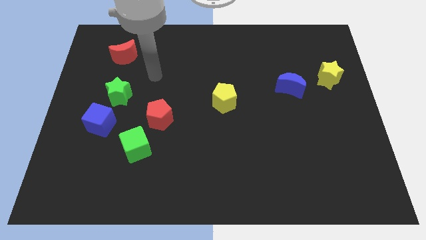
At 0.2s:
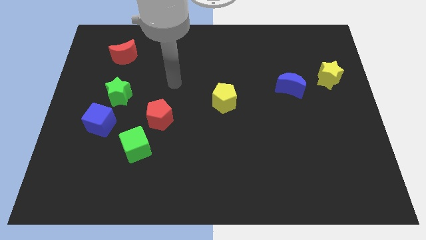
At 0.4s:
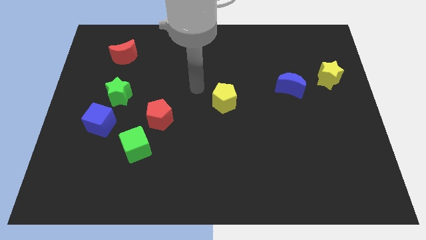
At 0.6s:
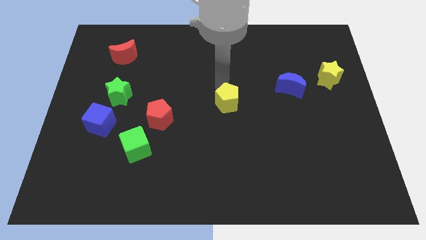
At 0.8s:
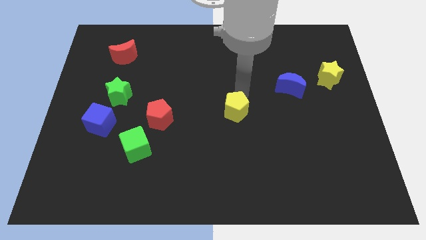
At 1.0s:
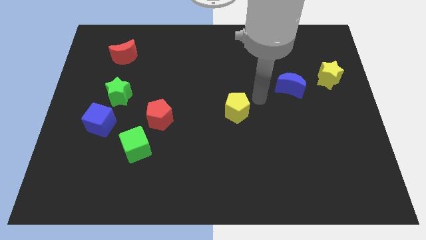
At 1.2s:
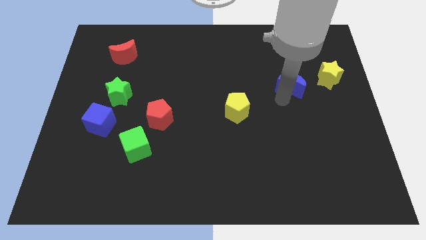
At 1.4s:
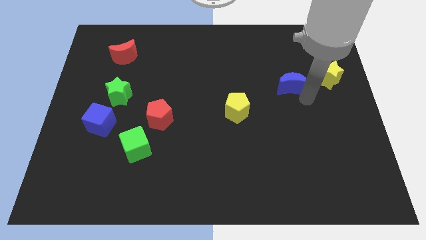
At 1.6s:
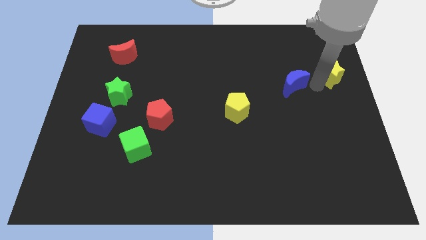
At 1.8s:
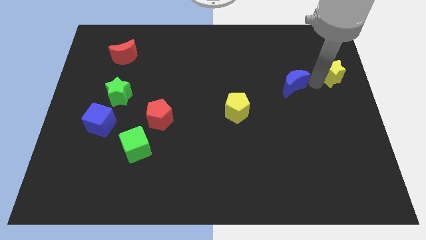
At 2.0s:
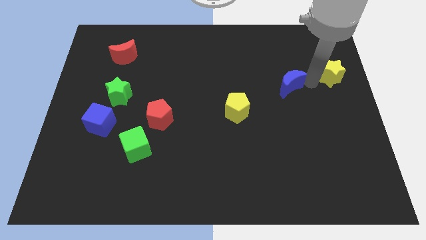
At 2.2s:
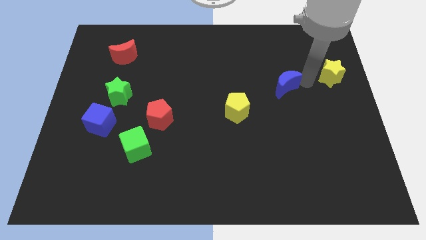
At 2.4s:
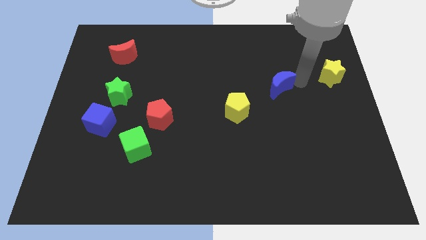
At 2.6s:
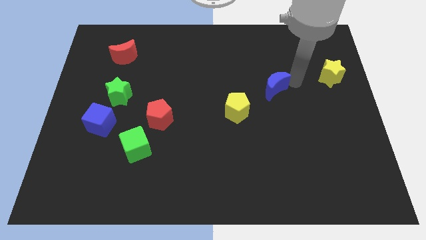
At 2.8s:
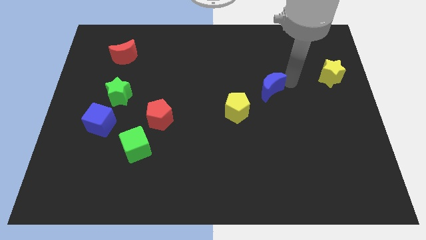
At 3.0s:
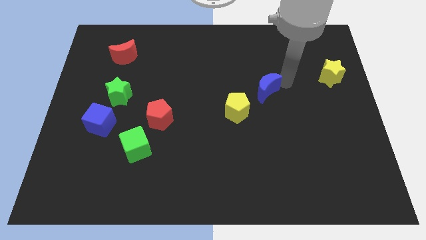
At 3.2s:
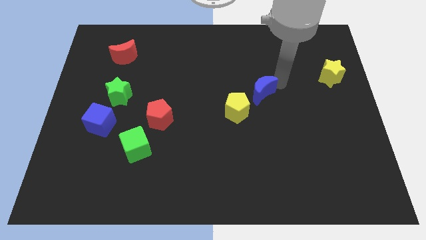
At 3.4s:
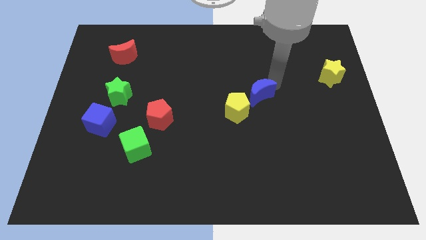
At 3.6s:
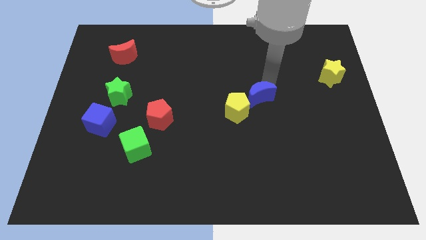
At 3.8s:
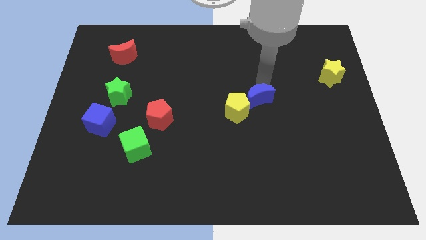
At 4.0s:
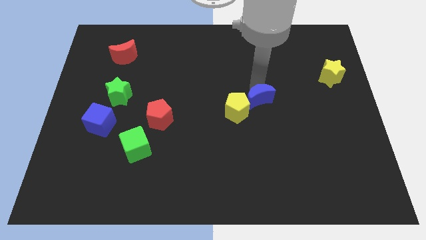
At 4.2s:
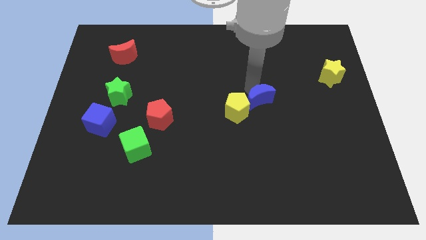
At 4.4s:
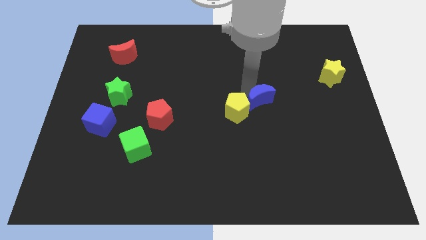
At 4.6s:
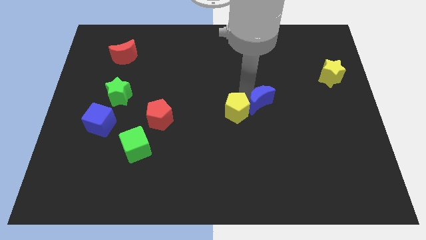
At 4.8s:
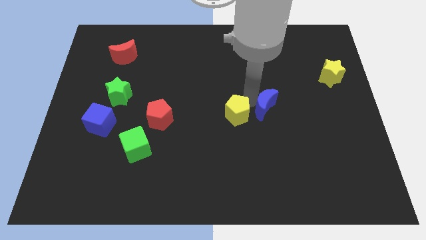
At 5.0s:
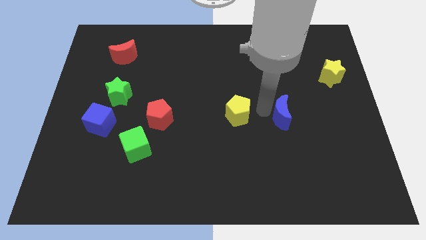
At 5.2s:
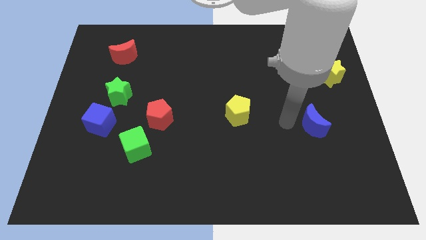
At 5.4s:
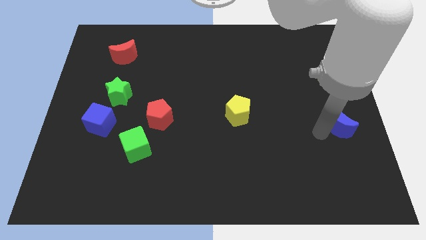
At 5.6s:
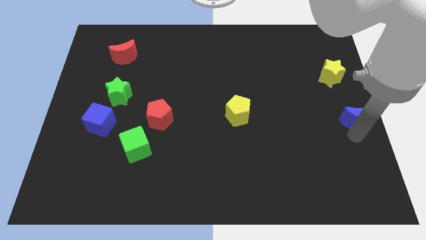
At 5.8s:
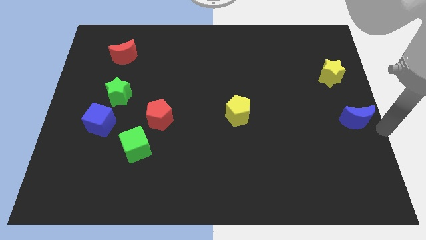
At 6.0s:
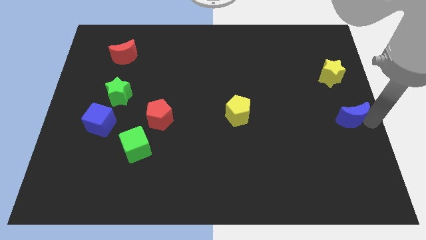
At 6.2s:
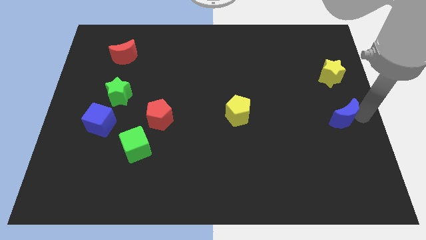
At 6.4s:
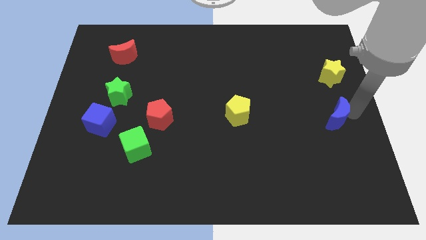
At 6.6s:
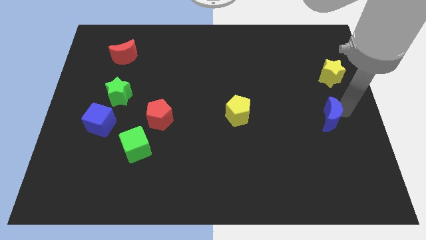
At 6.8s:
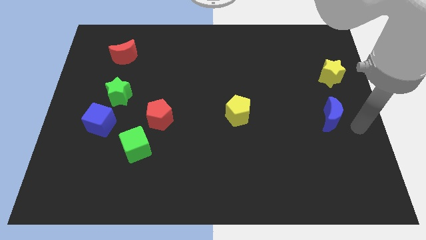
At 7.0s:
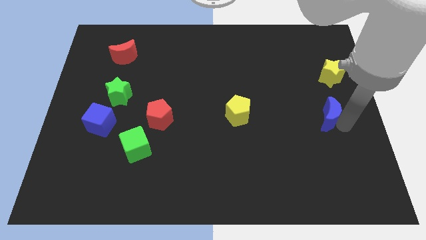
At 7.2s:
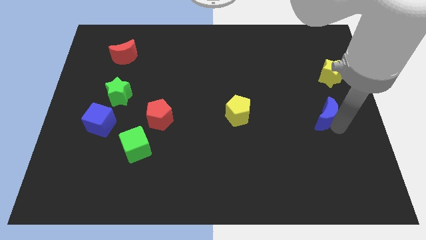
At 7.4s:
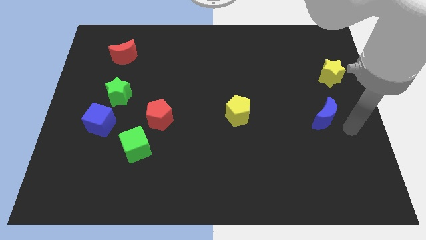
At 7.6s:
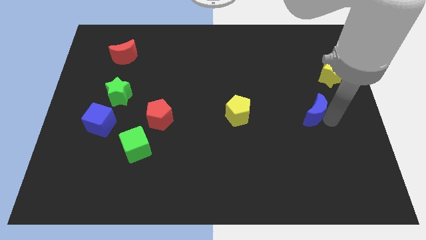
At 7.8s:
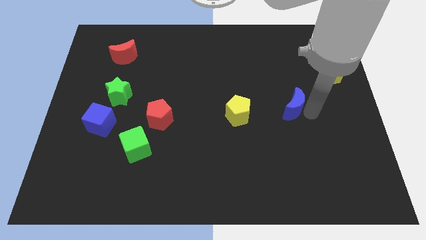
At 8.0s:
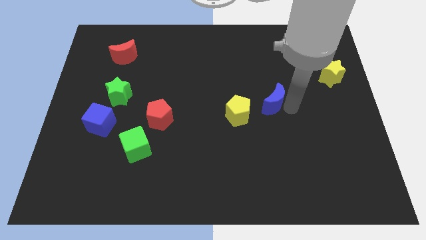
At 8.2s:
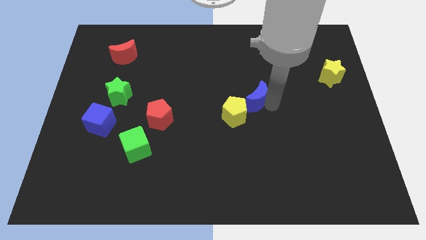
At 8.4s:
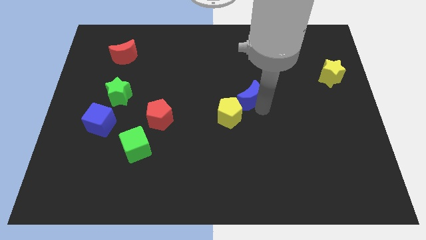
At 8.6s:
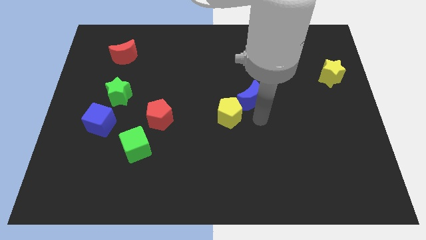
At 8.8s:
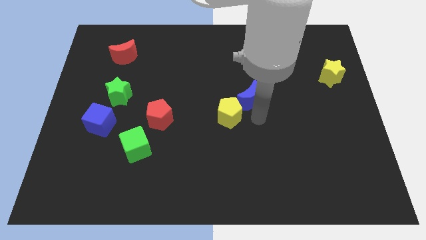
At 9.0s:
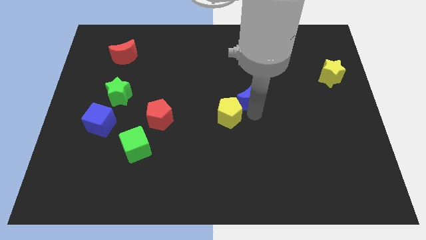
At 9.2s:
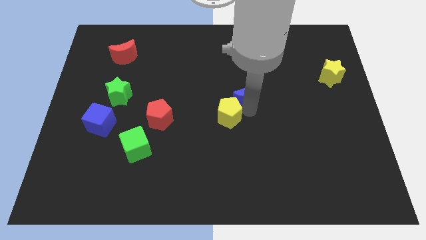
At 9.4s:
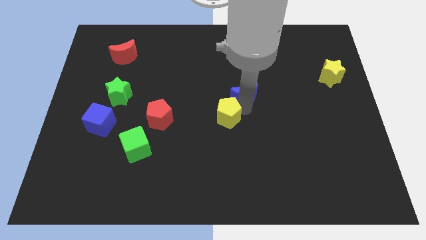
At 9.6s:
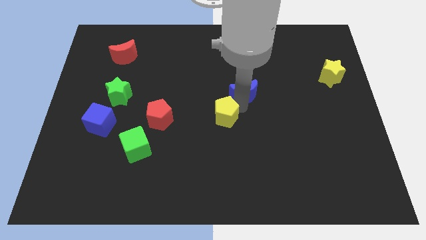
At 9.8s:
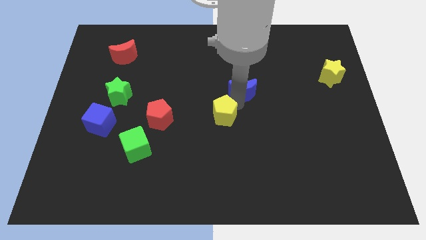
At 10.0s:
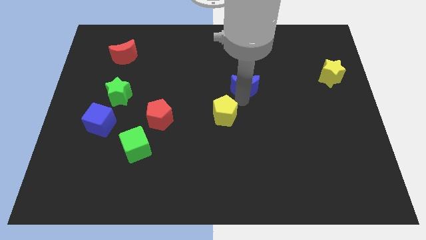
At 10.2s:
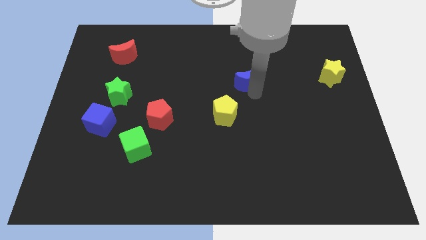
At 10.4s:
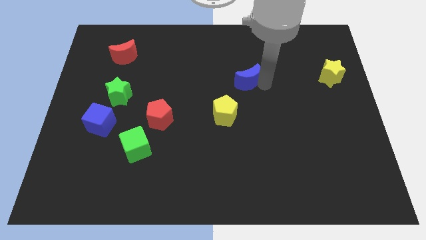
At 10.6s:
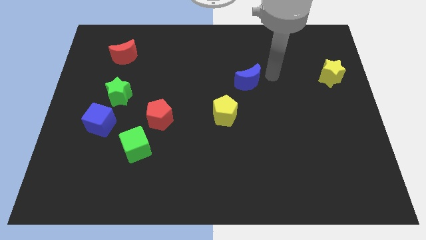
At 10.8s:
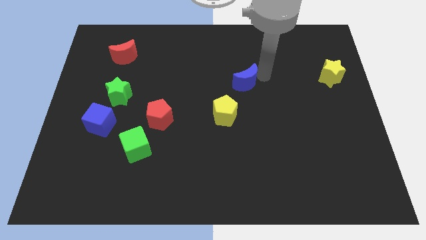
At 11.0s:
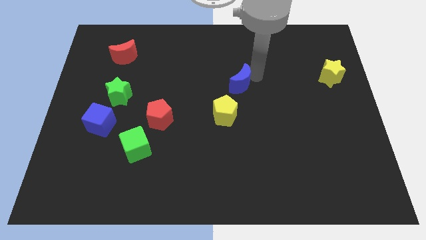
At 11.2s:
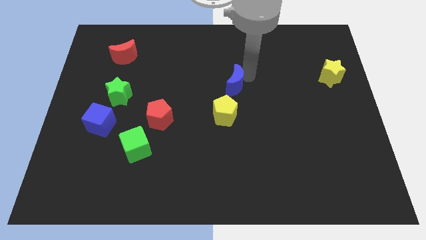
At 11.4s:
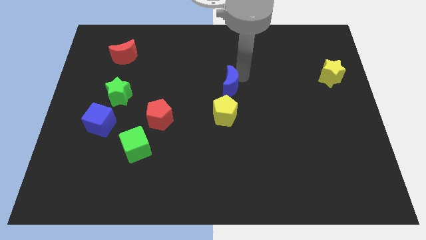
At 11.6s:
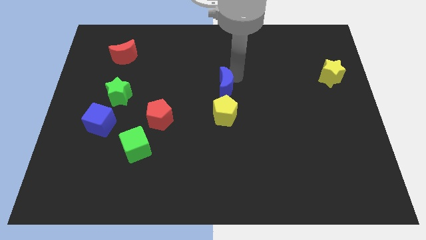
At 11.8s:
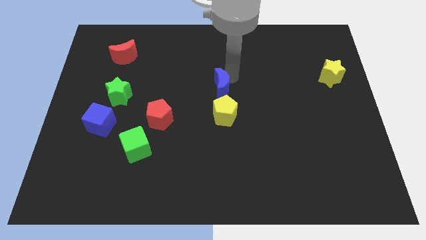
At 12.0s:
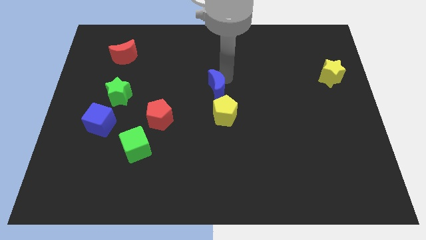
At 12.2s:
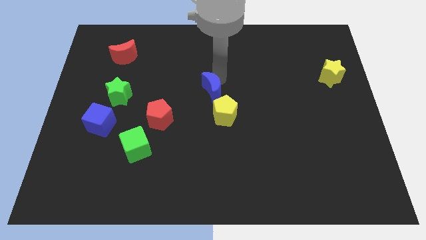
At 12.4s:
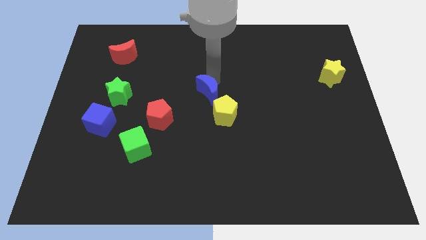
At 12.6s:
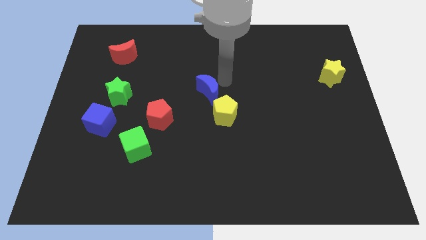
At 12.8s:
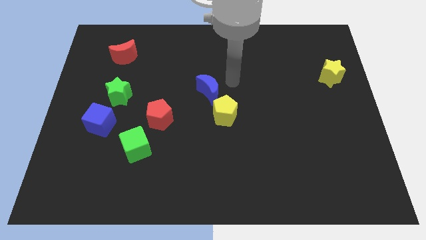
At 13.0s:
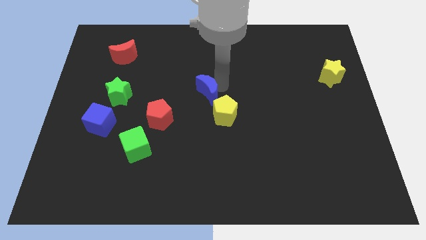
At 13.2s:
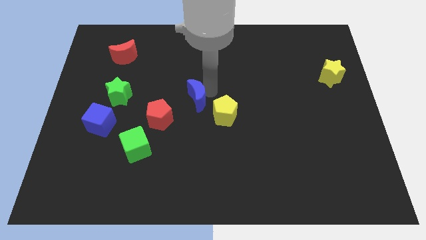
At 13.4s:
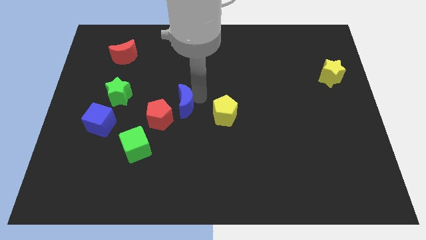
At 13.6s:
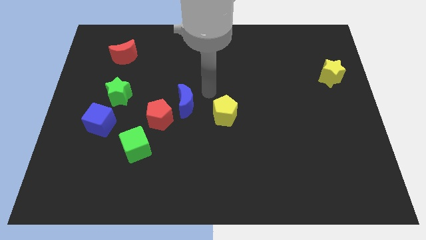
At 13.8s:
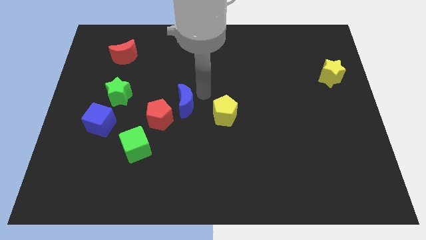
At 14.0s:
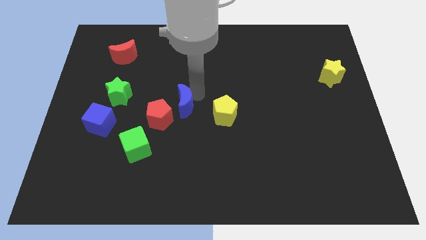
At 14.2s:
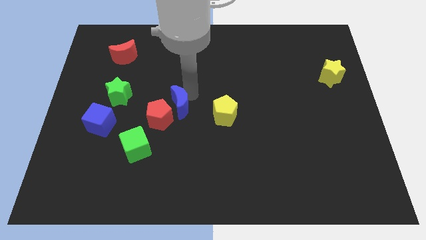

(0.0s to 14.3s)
slide the blue moon close to the red pentagon

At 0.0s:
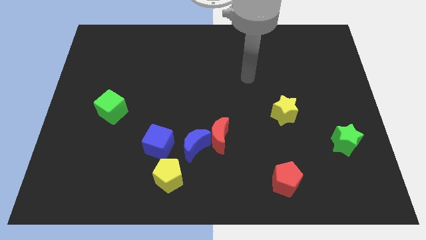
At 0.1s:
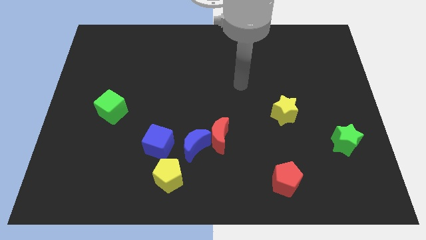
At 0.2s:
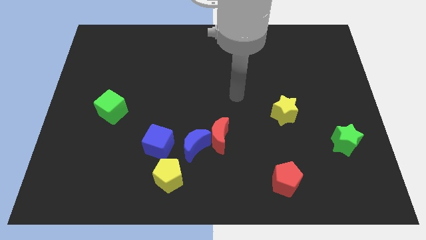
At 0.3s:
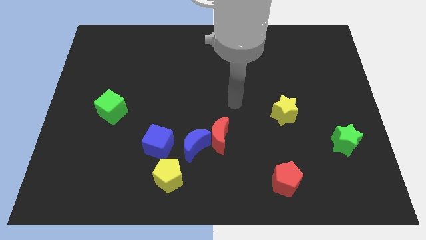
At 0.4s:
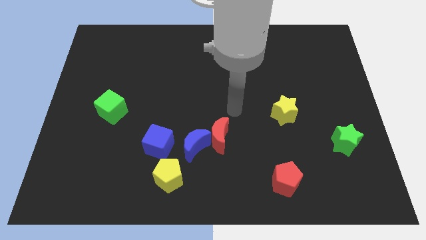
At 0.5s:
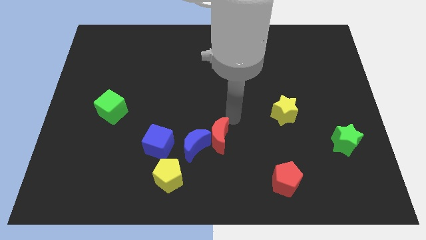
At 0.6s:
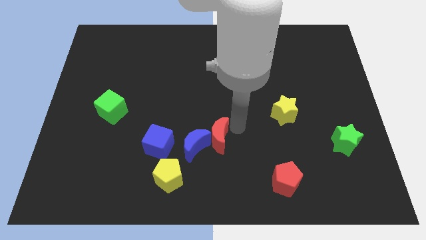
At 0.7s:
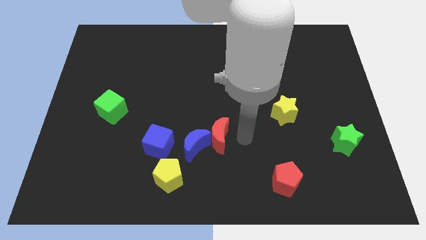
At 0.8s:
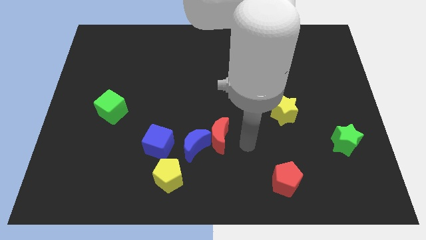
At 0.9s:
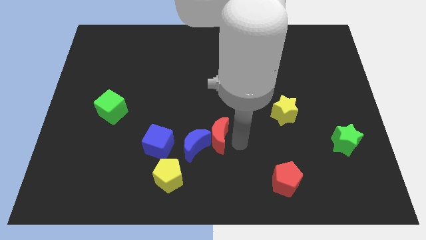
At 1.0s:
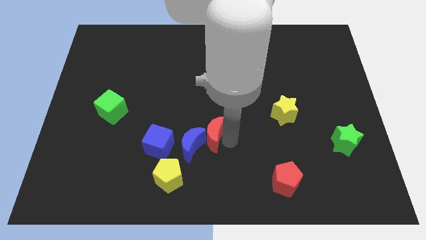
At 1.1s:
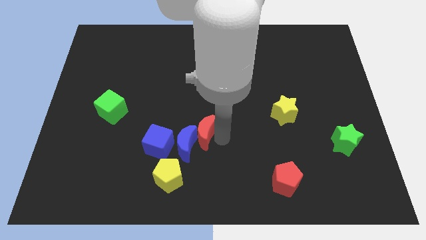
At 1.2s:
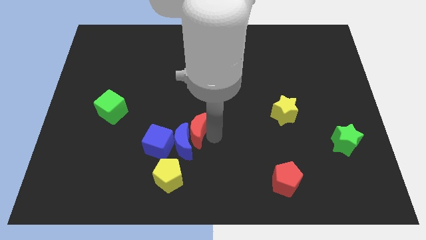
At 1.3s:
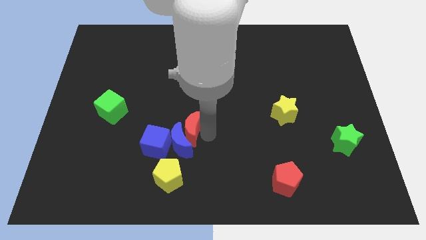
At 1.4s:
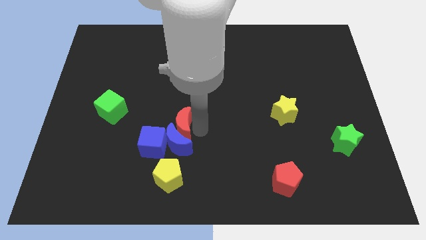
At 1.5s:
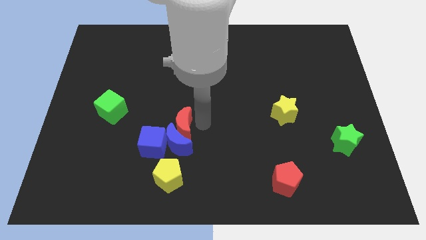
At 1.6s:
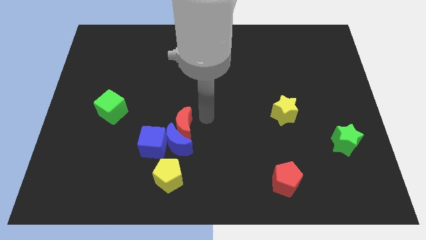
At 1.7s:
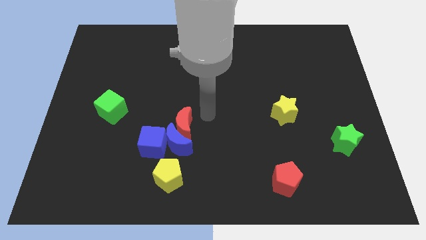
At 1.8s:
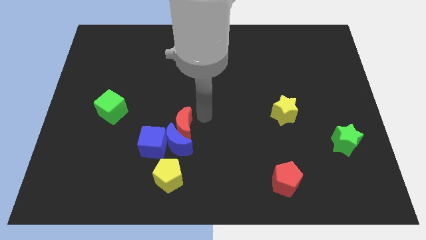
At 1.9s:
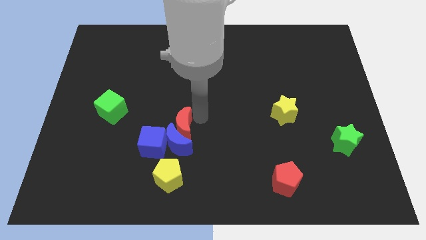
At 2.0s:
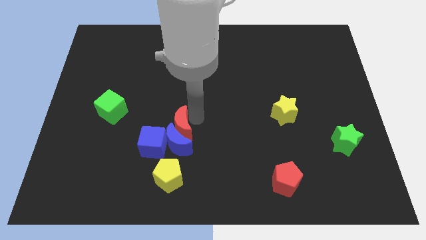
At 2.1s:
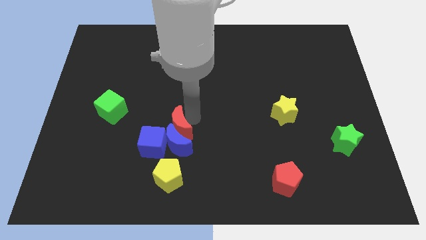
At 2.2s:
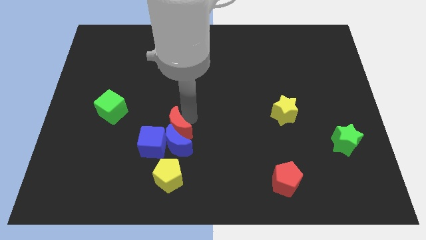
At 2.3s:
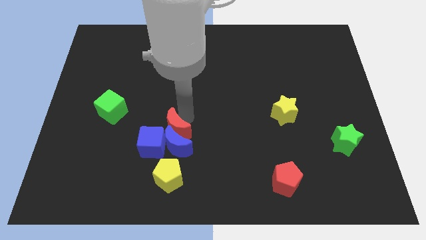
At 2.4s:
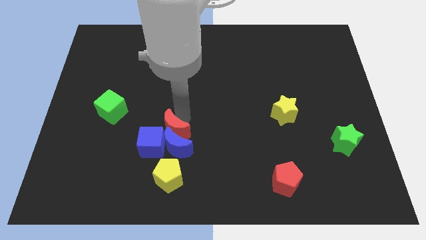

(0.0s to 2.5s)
move the red moon next to the blue cube
